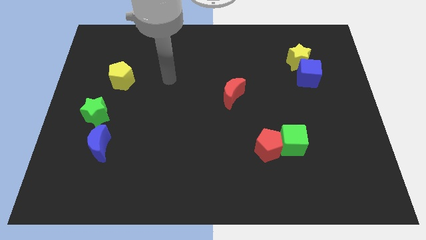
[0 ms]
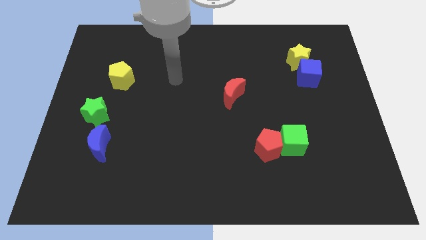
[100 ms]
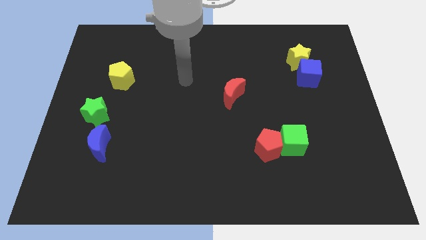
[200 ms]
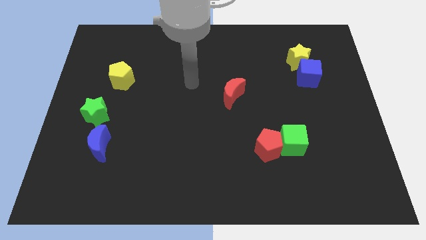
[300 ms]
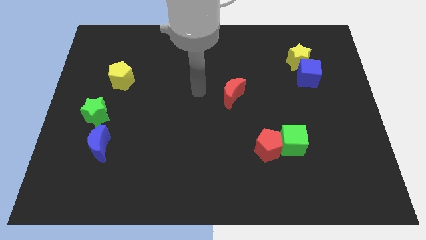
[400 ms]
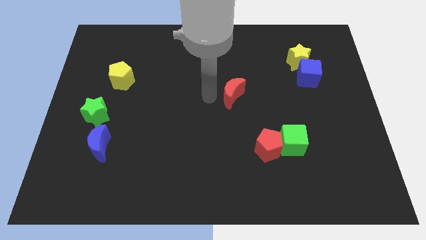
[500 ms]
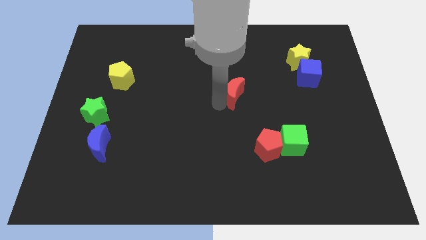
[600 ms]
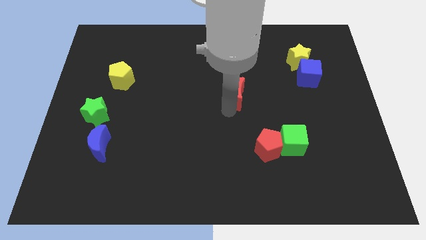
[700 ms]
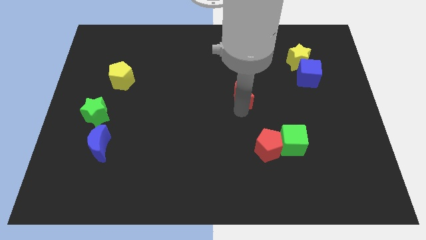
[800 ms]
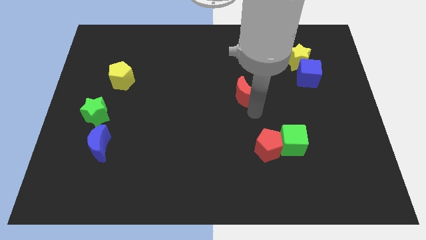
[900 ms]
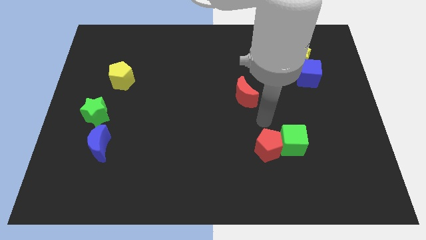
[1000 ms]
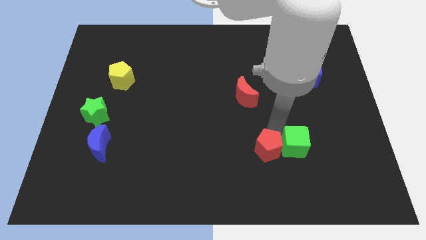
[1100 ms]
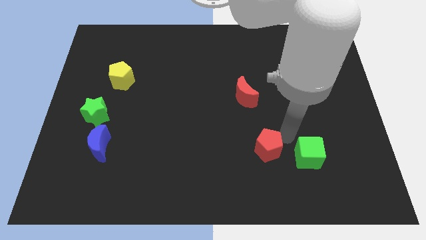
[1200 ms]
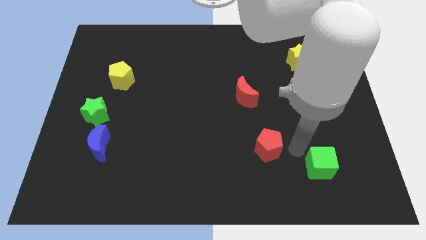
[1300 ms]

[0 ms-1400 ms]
move the red pentagon away from the green cube

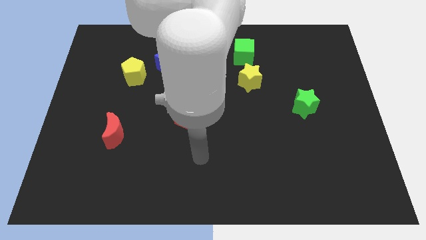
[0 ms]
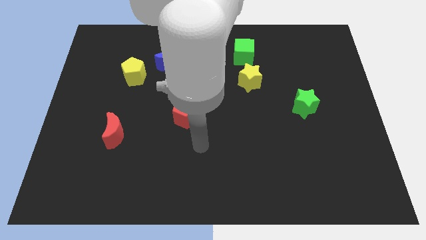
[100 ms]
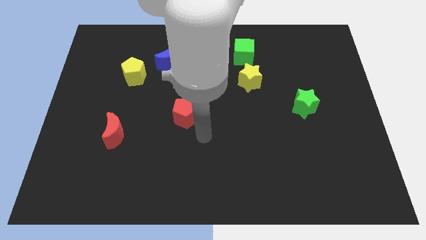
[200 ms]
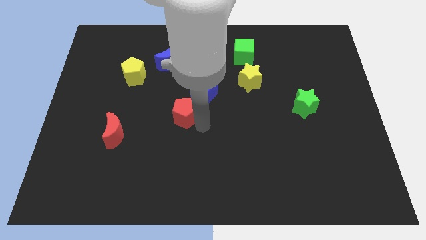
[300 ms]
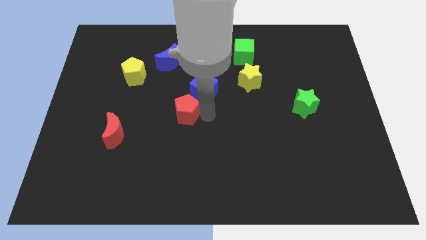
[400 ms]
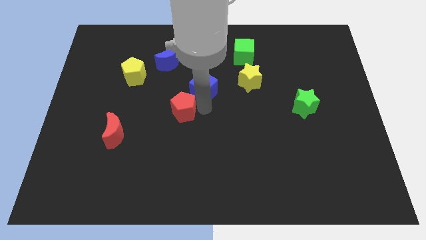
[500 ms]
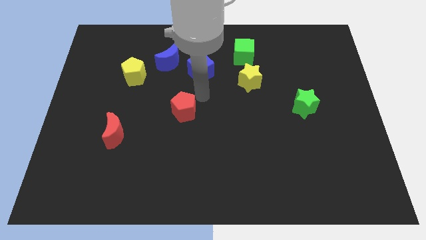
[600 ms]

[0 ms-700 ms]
separate the red pentagon from the blue cube

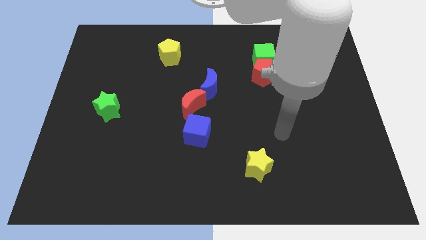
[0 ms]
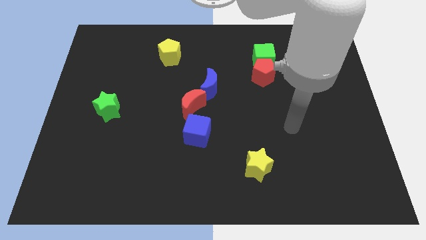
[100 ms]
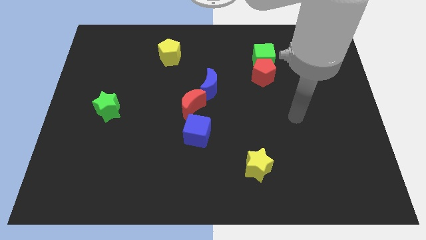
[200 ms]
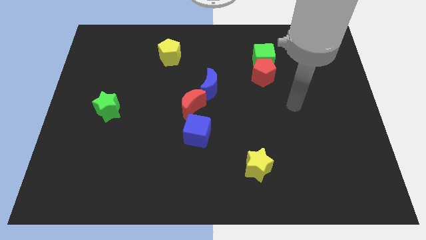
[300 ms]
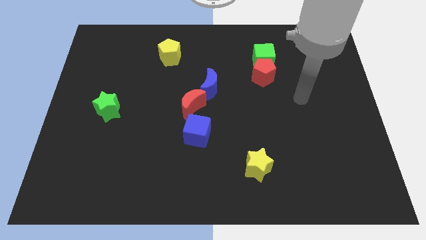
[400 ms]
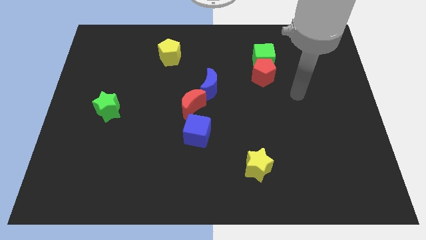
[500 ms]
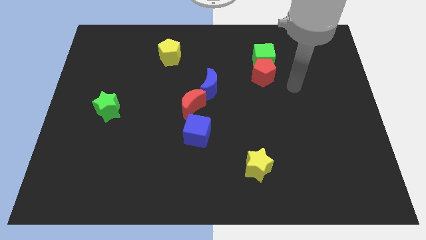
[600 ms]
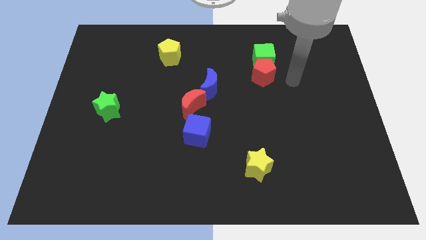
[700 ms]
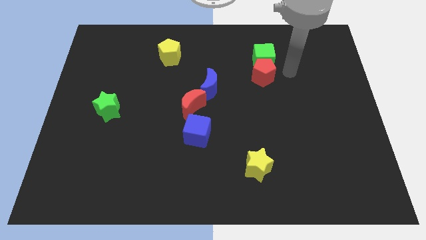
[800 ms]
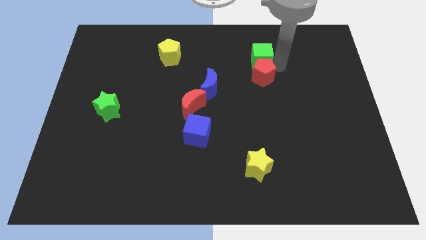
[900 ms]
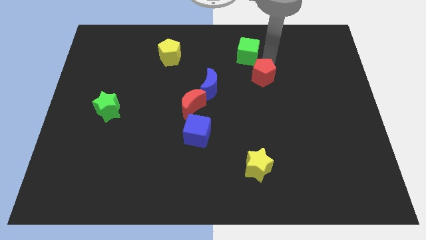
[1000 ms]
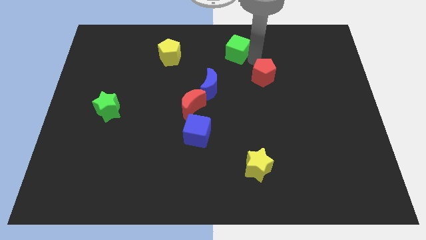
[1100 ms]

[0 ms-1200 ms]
separate the red pentagon from the green cube

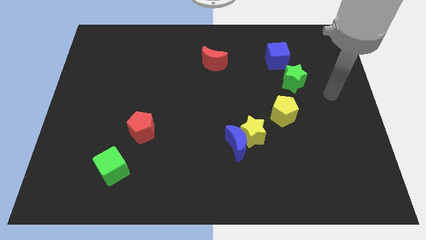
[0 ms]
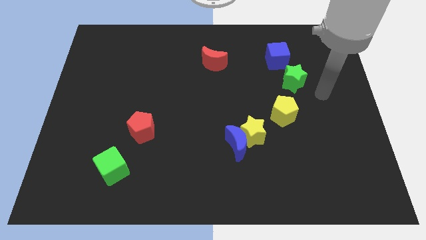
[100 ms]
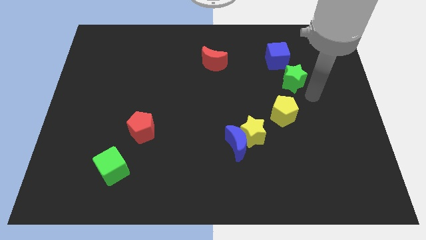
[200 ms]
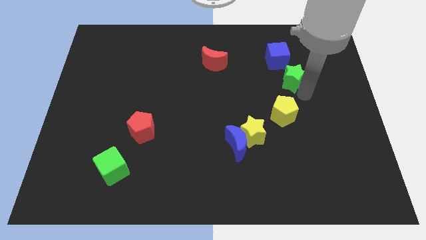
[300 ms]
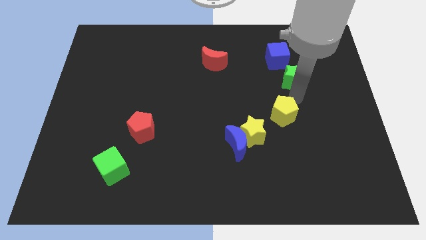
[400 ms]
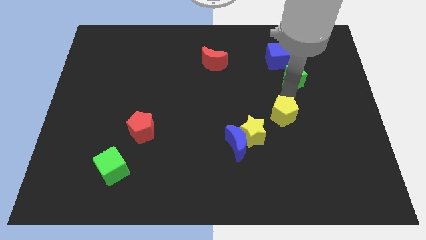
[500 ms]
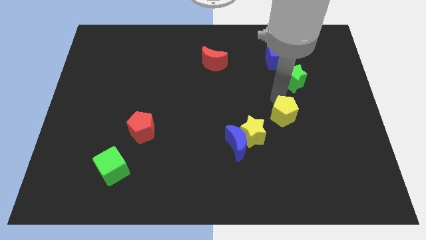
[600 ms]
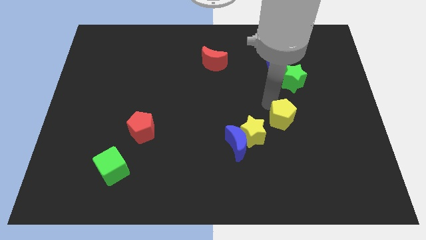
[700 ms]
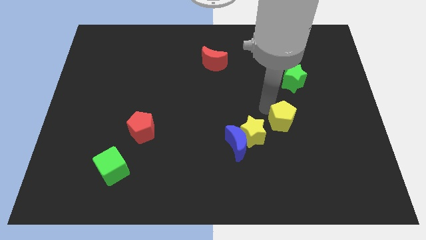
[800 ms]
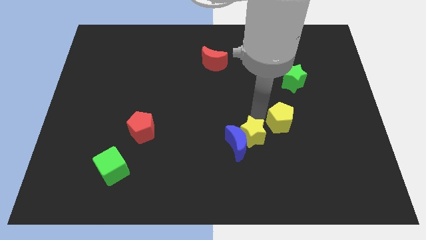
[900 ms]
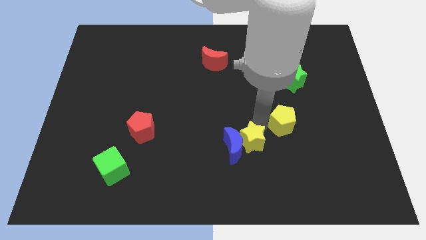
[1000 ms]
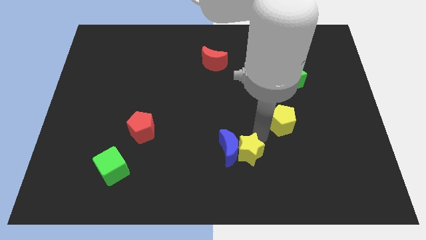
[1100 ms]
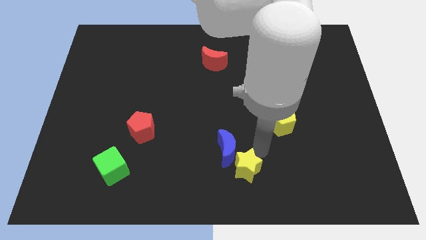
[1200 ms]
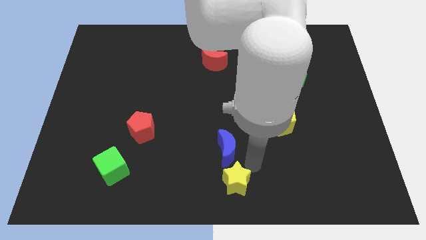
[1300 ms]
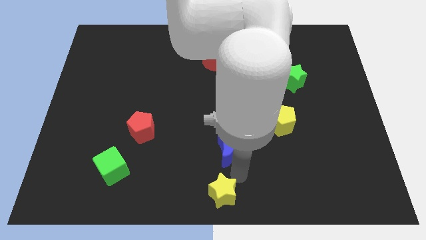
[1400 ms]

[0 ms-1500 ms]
pull the blue moon apart from the yellow star

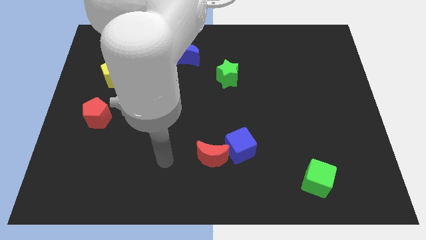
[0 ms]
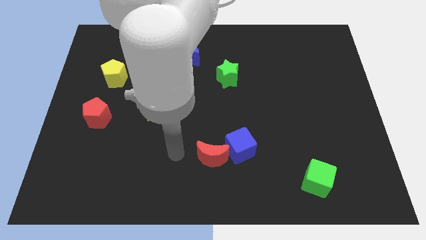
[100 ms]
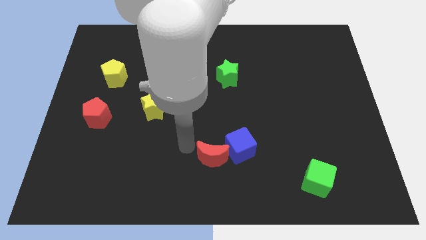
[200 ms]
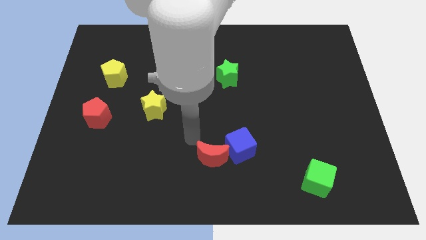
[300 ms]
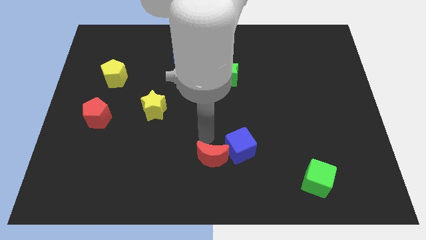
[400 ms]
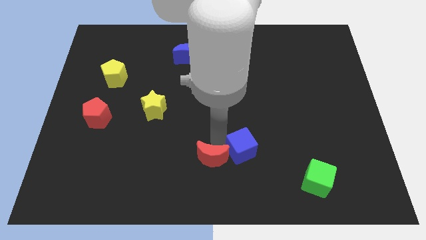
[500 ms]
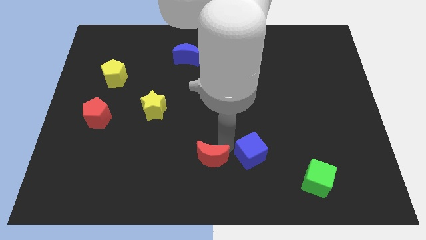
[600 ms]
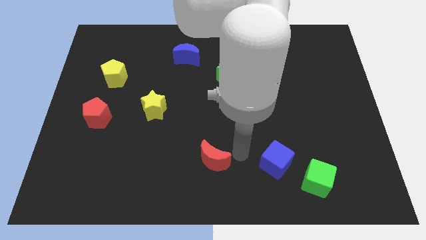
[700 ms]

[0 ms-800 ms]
pull the red moon apart from the blue cube

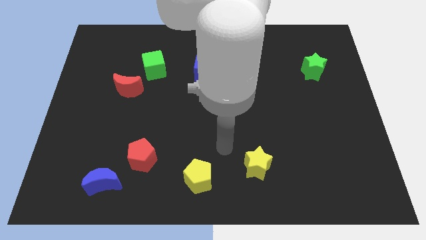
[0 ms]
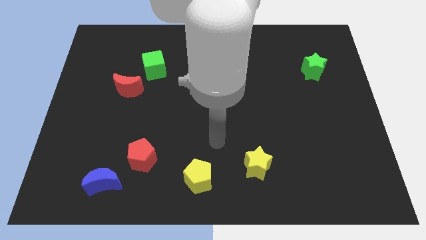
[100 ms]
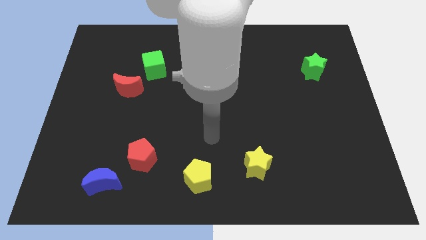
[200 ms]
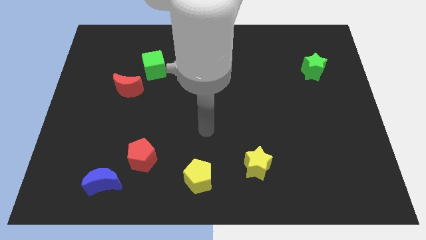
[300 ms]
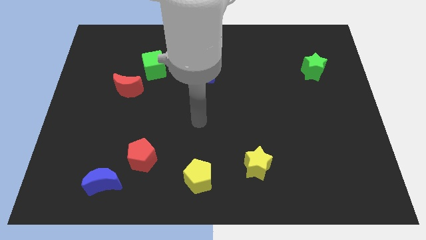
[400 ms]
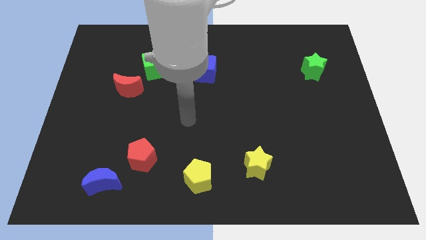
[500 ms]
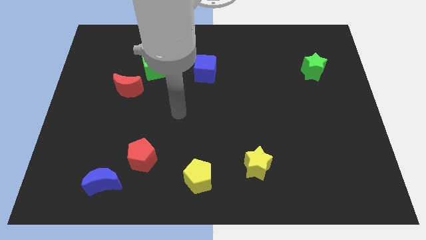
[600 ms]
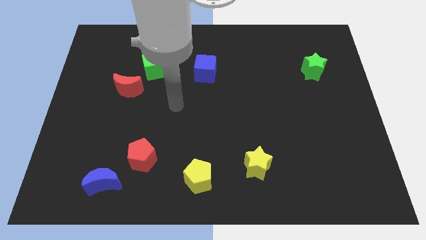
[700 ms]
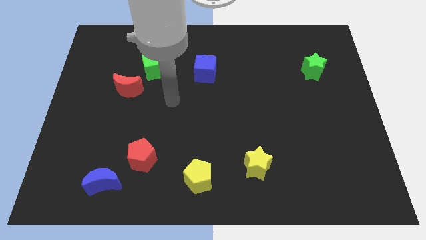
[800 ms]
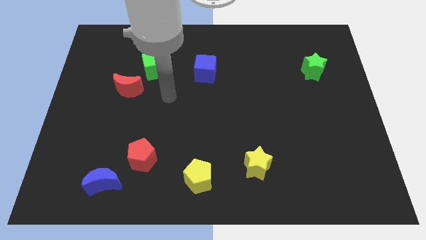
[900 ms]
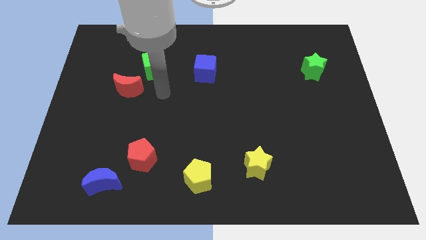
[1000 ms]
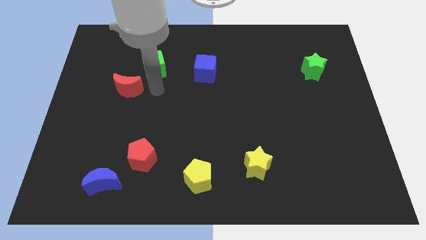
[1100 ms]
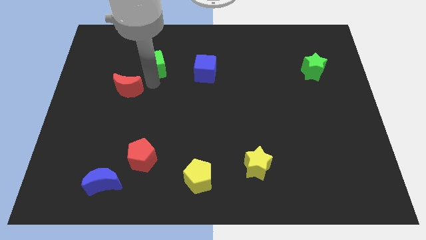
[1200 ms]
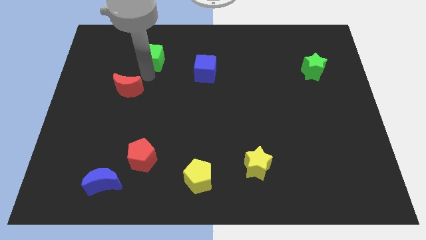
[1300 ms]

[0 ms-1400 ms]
move the red moon away from the green cube

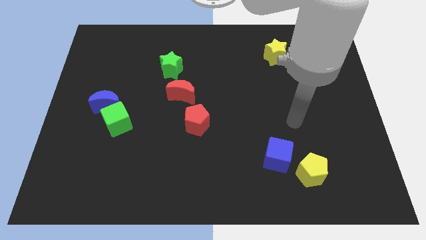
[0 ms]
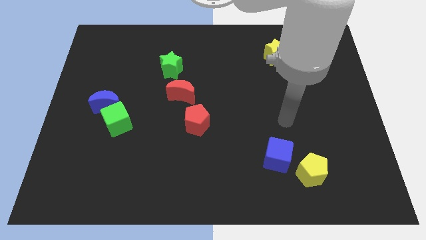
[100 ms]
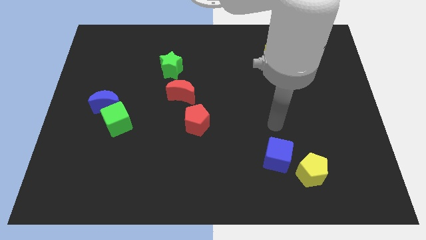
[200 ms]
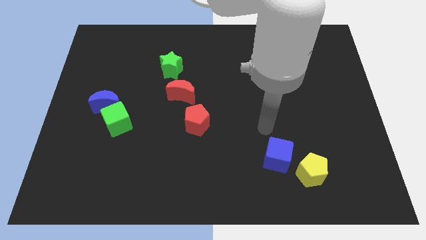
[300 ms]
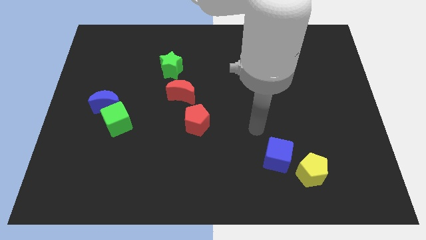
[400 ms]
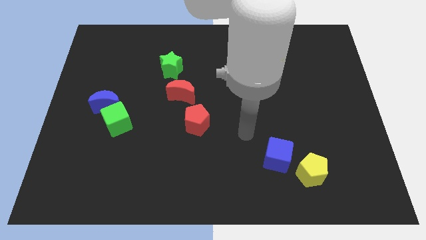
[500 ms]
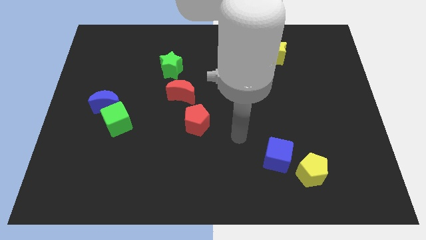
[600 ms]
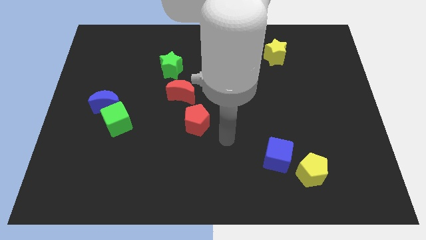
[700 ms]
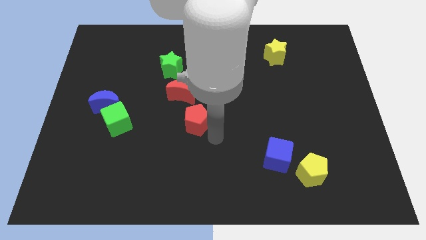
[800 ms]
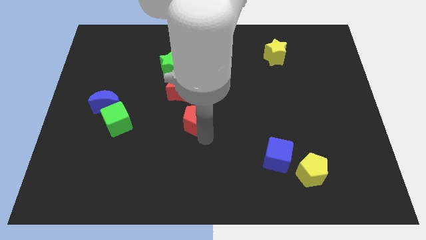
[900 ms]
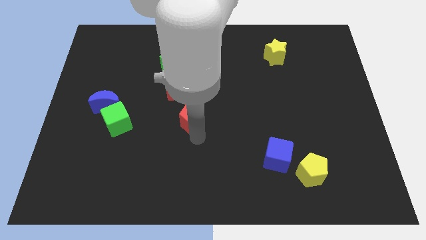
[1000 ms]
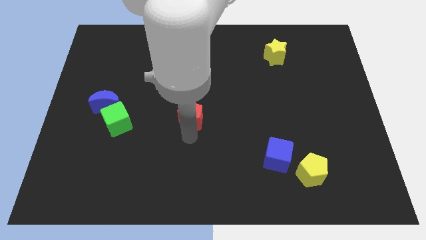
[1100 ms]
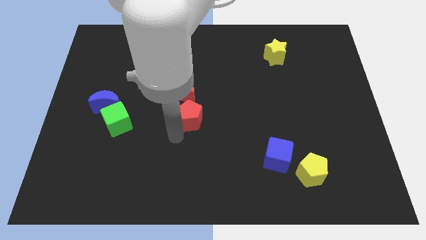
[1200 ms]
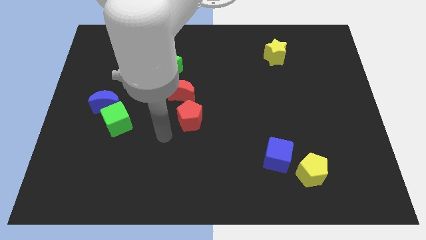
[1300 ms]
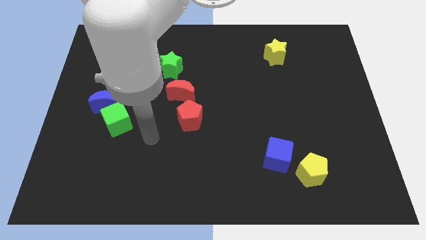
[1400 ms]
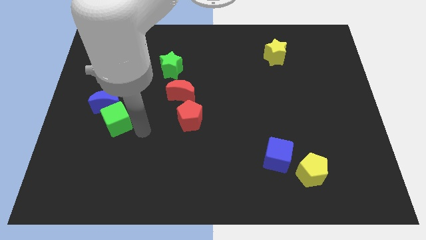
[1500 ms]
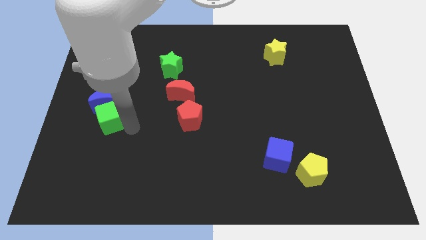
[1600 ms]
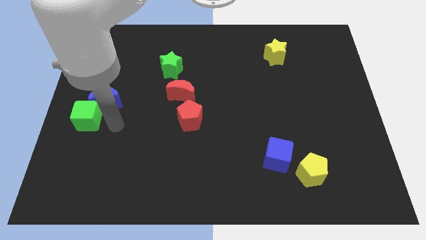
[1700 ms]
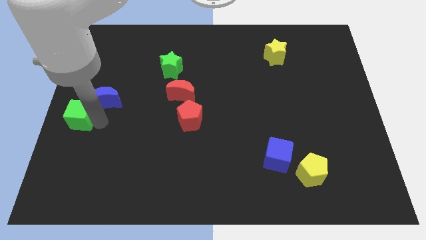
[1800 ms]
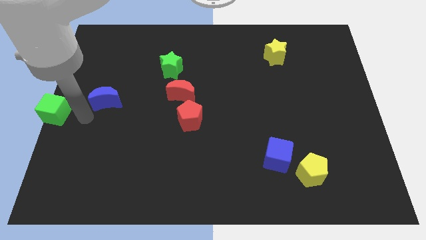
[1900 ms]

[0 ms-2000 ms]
move the blue moon away from the green cube

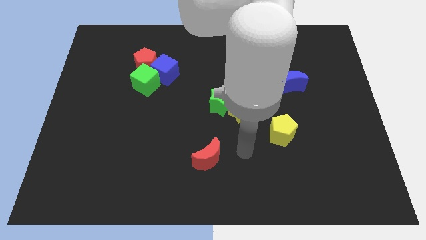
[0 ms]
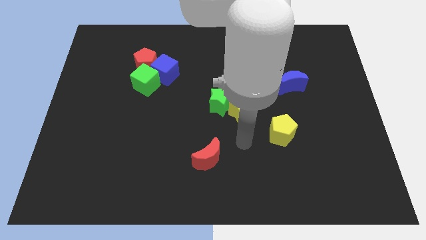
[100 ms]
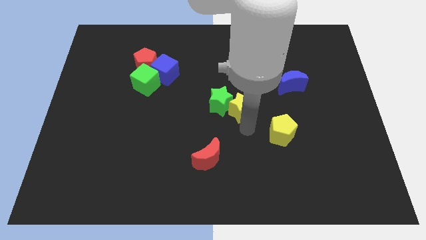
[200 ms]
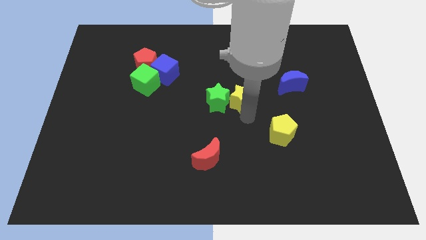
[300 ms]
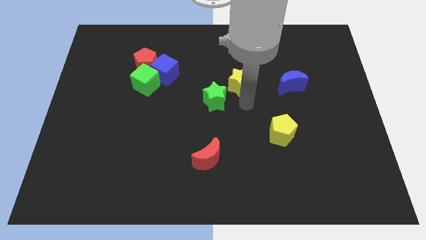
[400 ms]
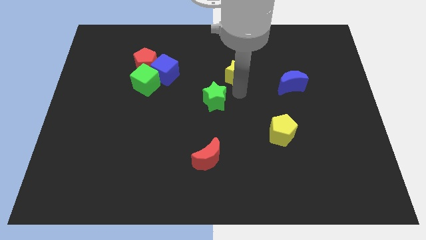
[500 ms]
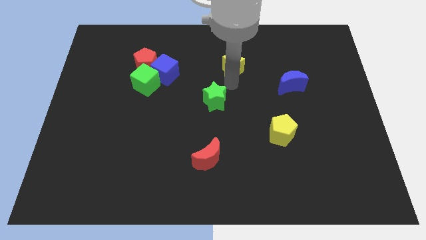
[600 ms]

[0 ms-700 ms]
pull the green star apart from the yellow star
